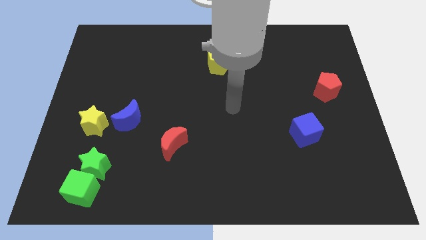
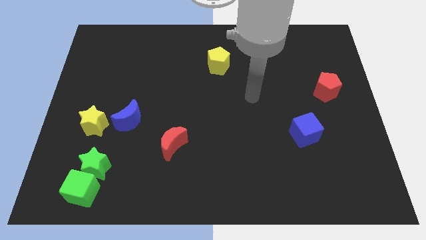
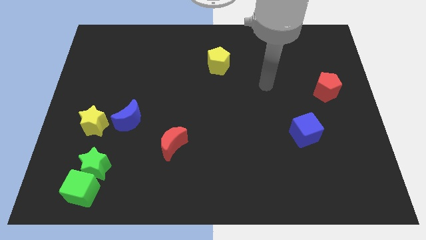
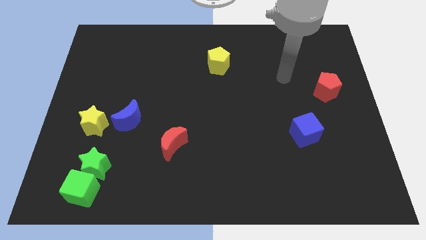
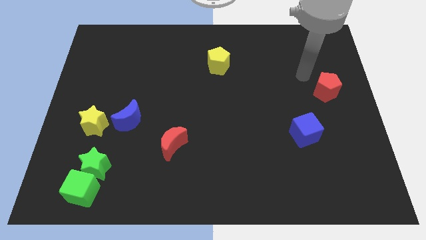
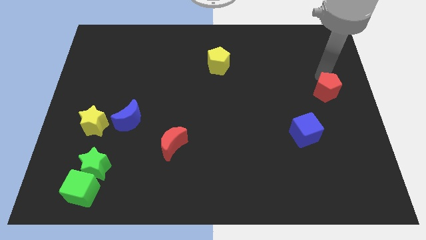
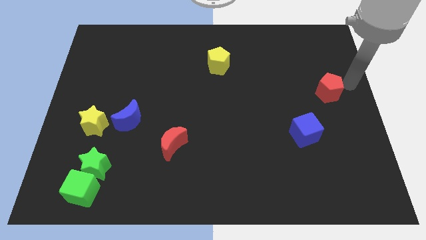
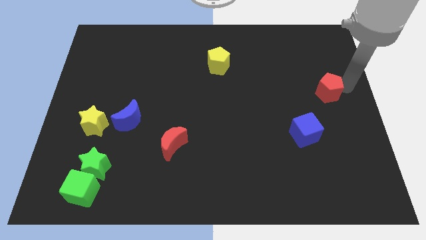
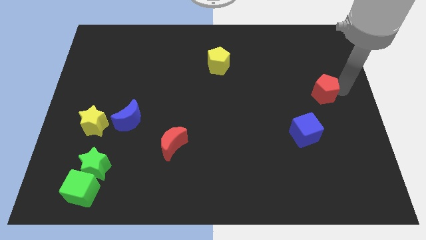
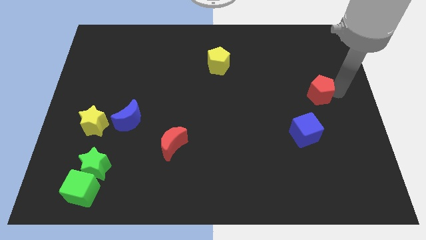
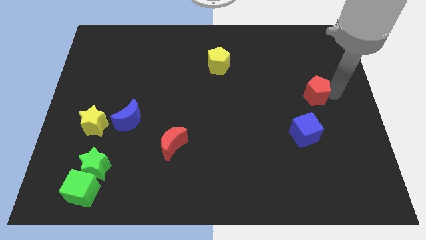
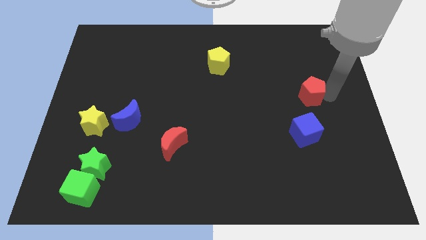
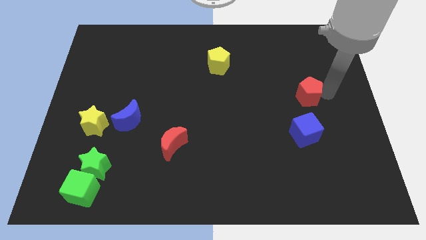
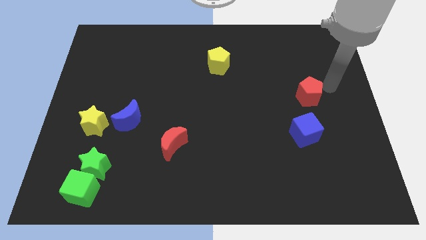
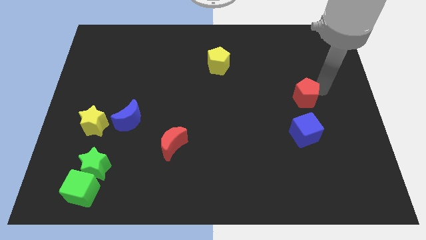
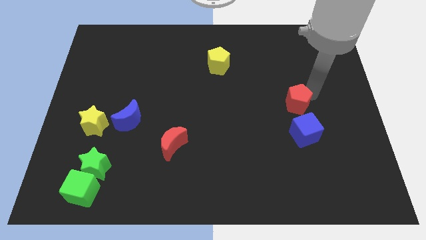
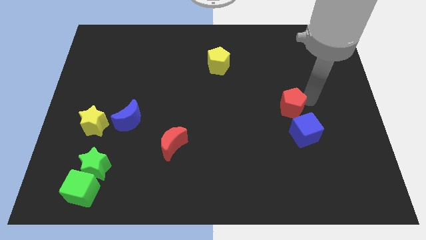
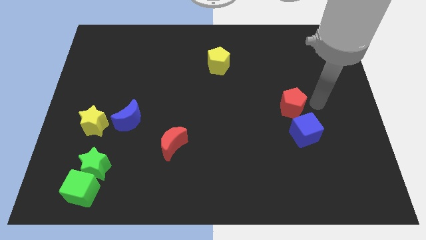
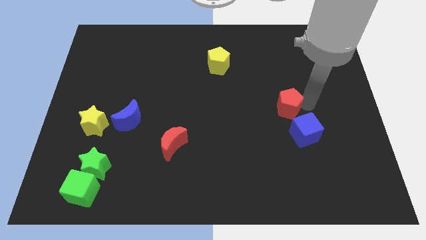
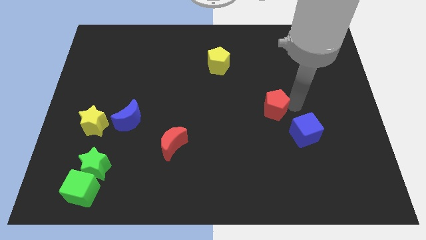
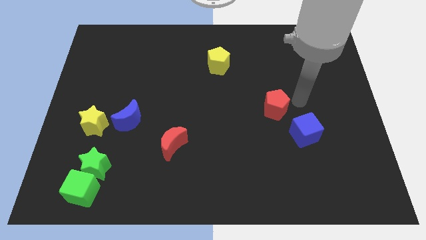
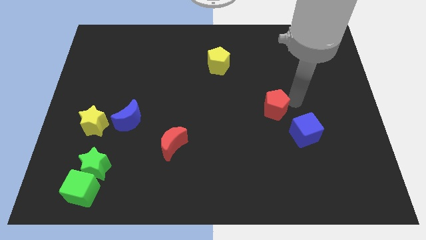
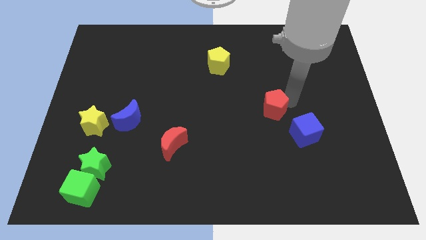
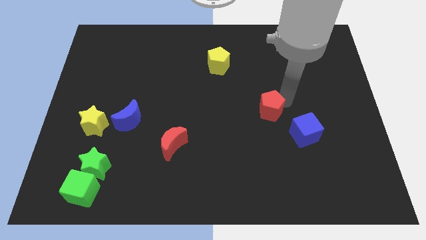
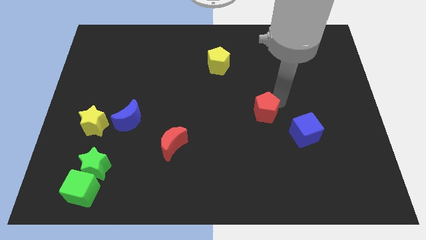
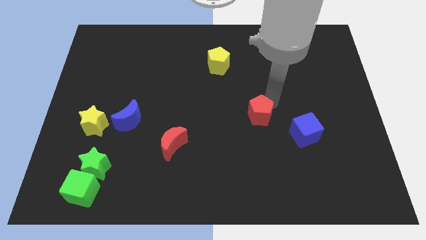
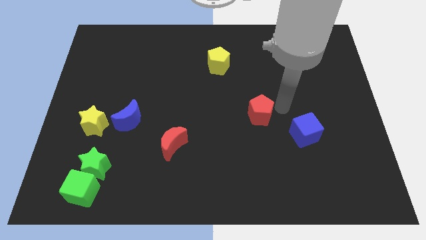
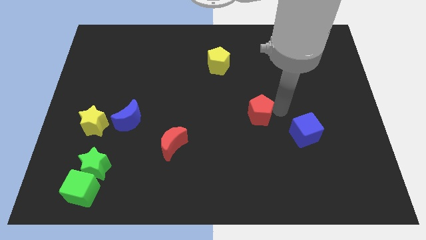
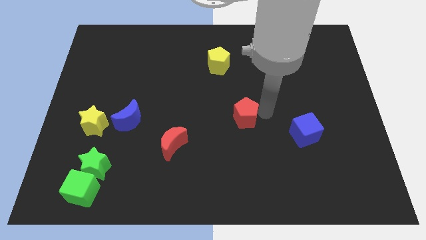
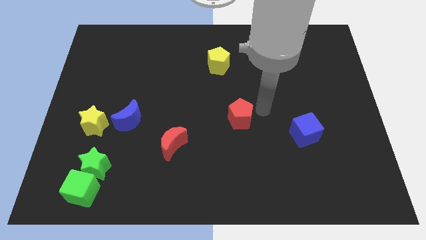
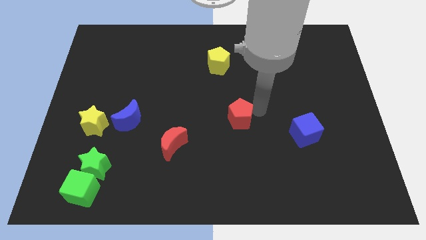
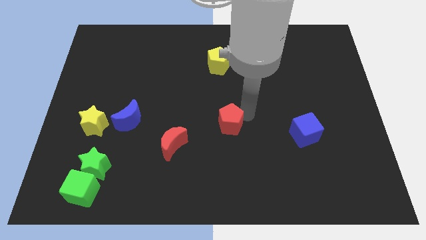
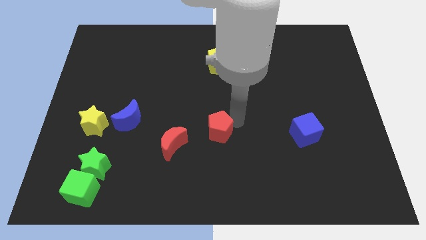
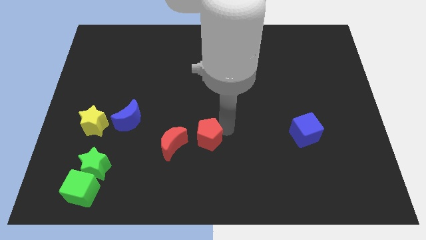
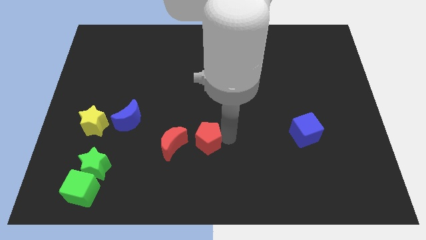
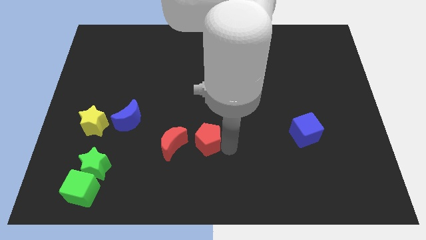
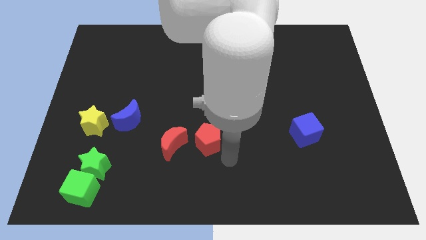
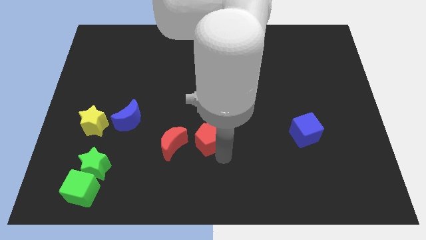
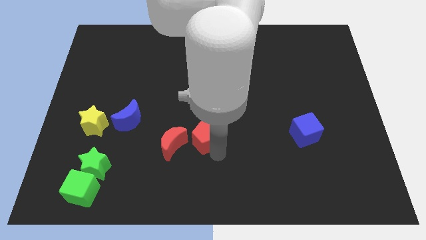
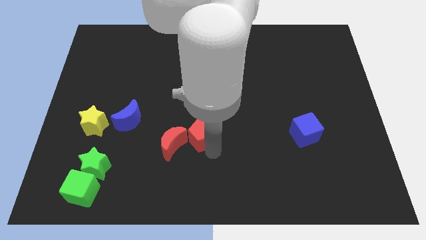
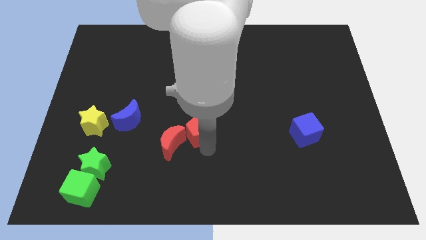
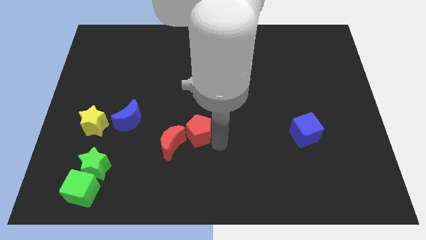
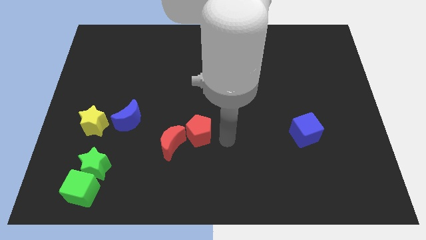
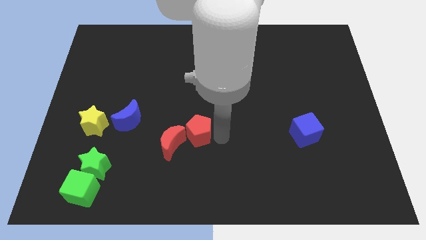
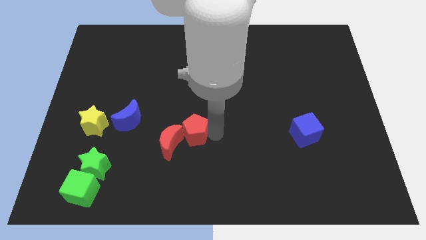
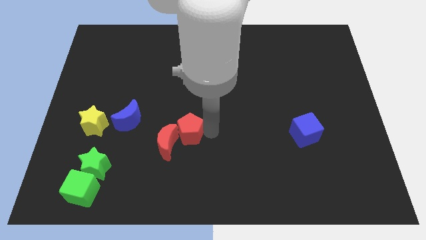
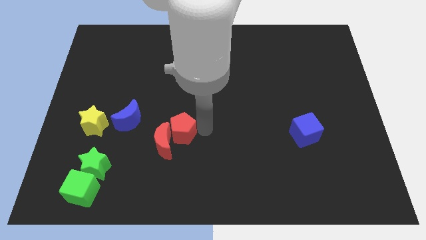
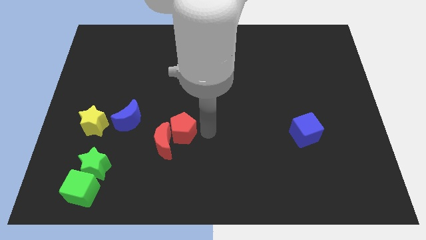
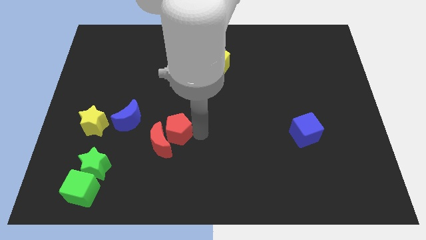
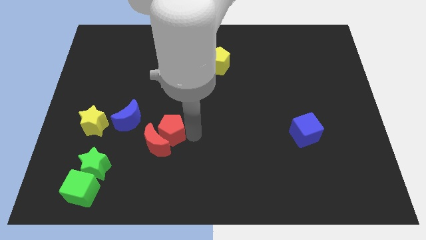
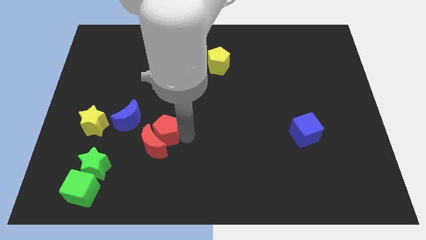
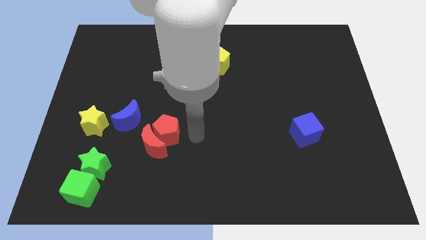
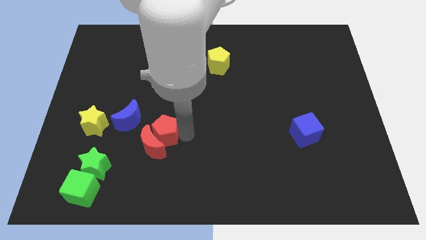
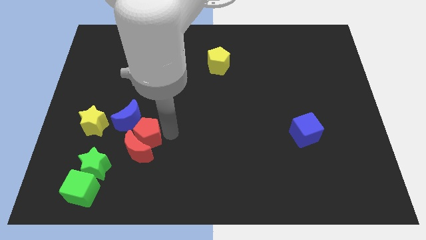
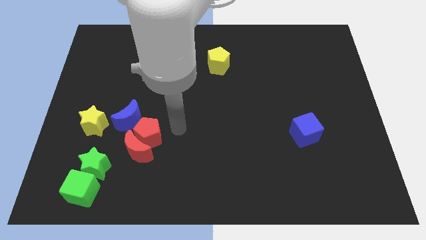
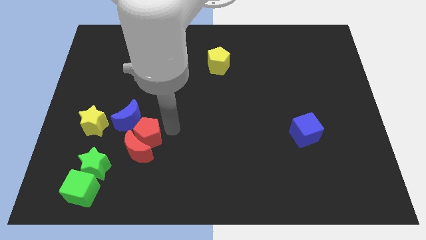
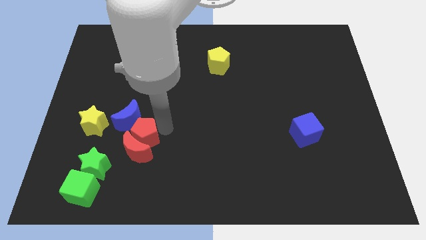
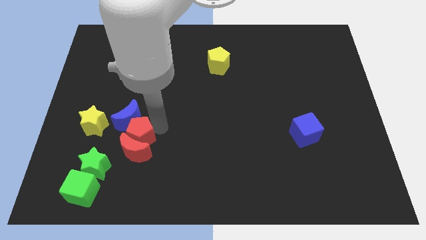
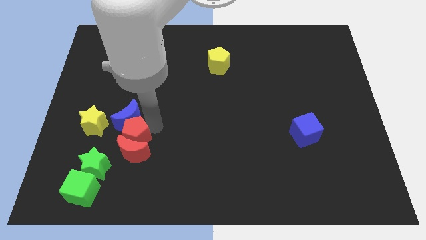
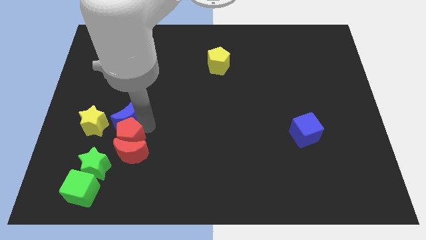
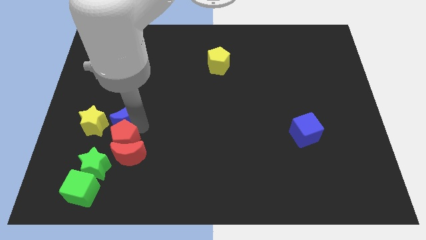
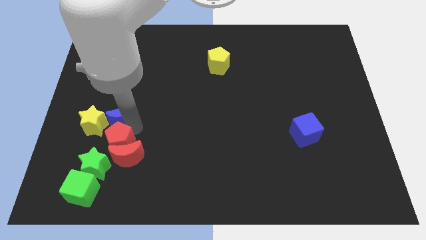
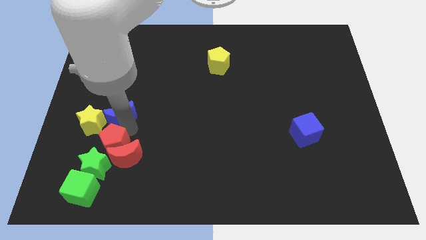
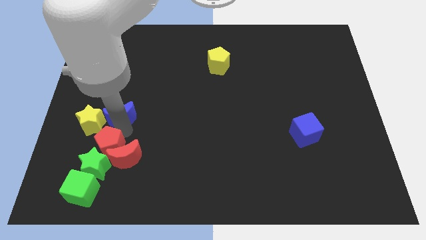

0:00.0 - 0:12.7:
push the red pentagon towards the green star

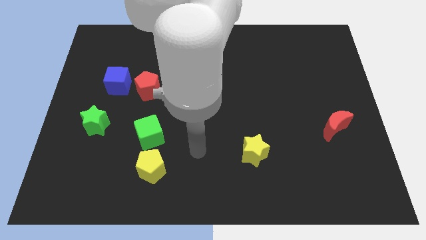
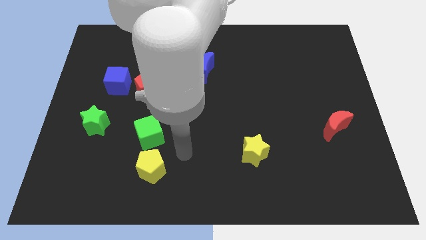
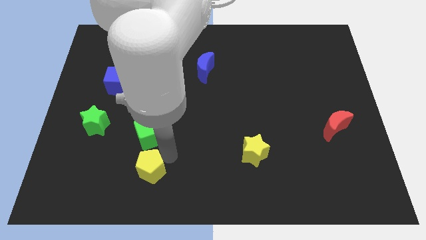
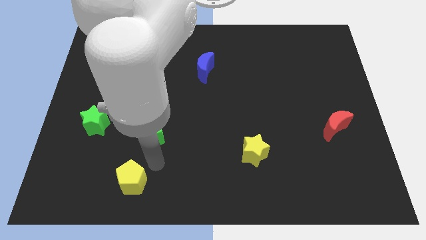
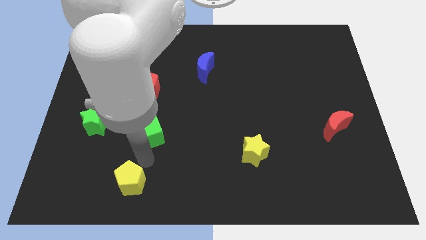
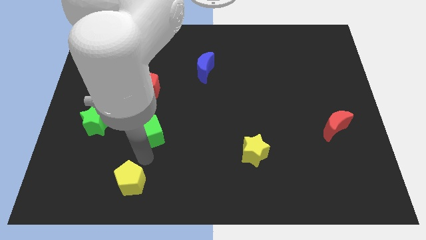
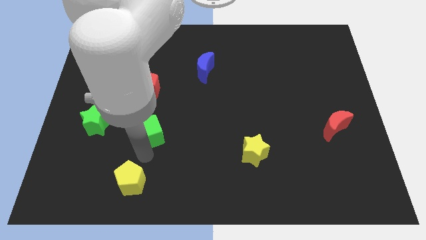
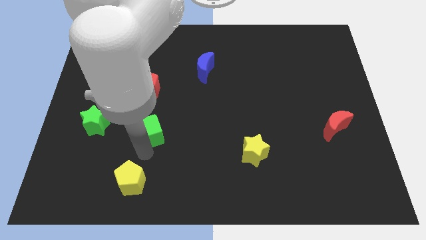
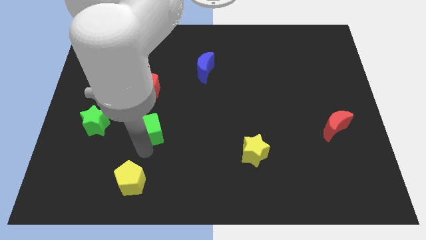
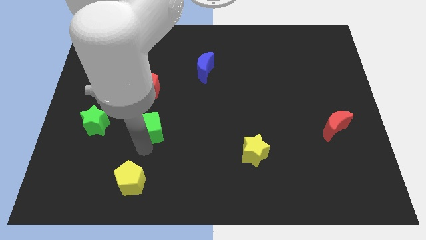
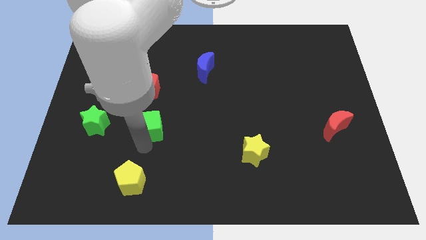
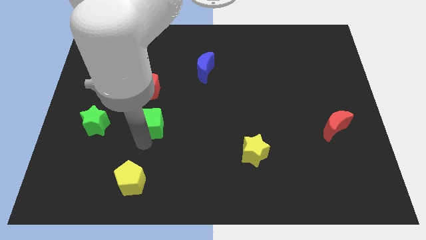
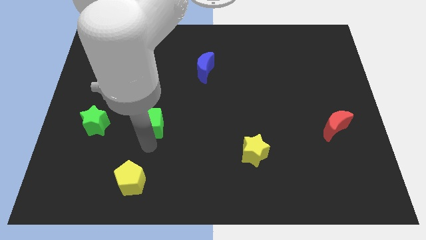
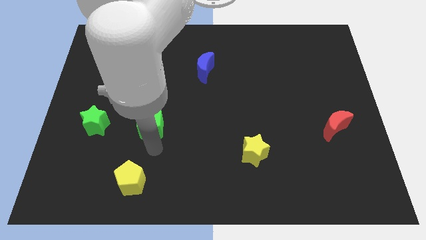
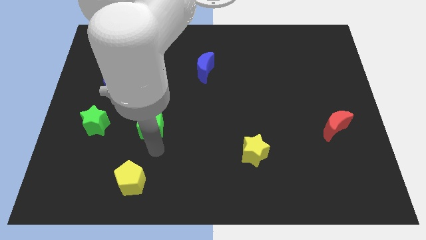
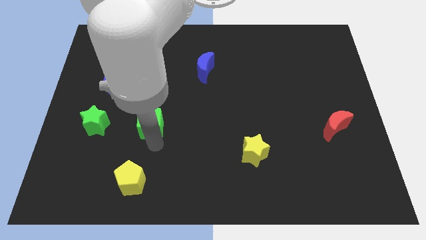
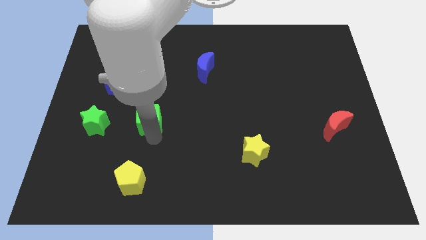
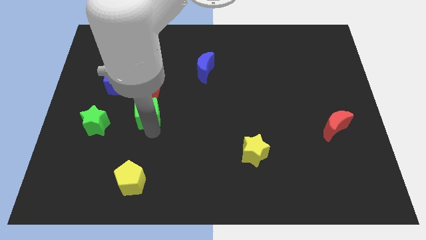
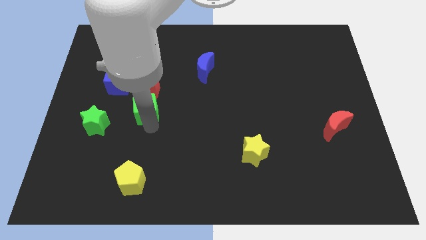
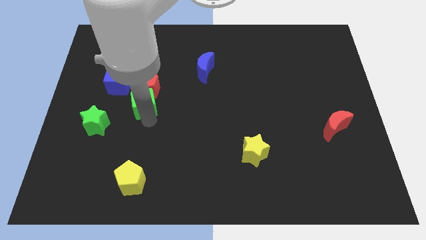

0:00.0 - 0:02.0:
put the green cube next to the red pentagon
